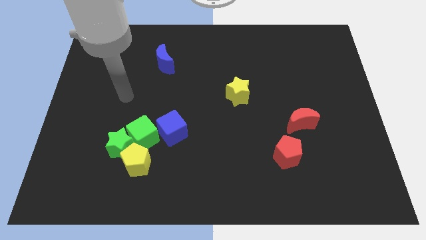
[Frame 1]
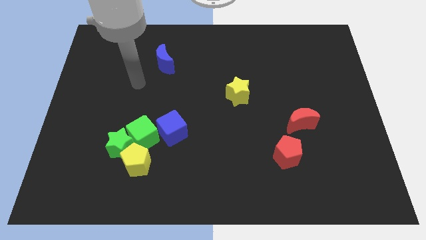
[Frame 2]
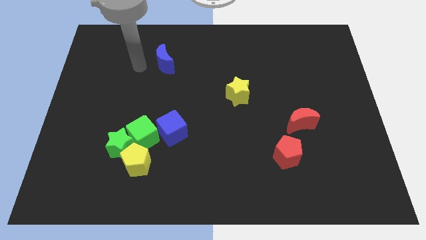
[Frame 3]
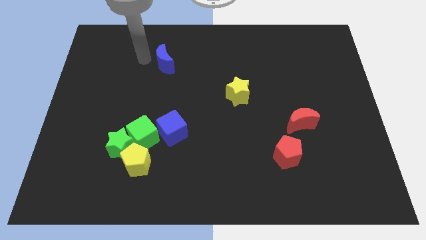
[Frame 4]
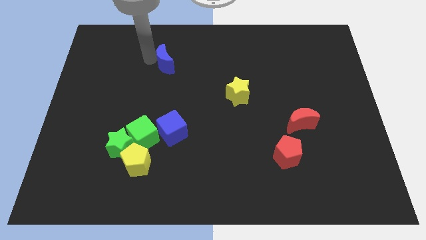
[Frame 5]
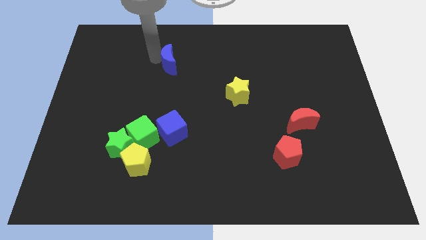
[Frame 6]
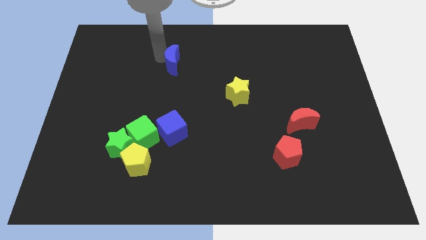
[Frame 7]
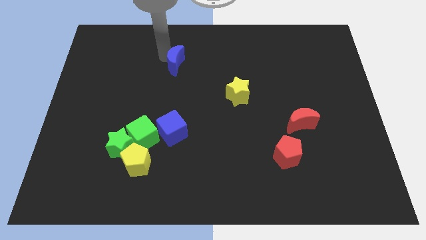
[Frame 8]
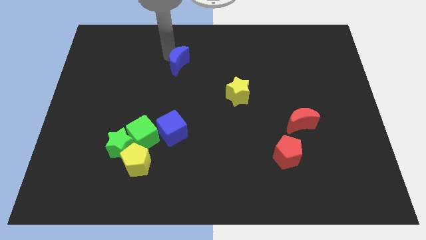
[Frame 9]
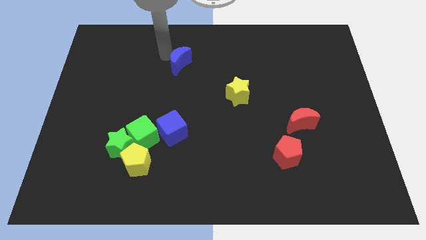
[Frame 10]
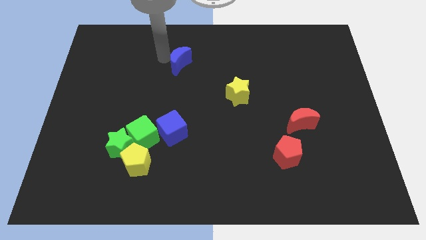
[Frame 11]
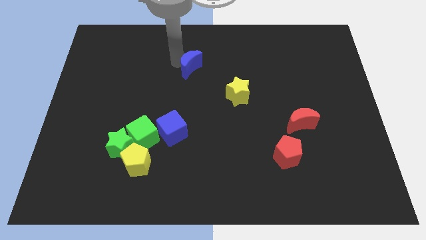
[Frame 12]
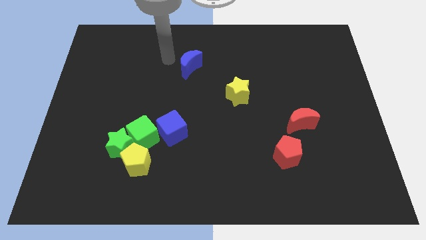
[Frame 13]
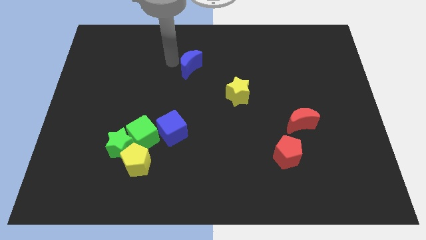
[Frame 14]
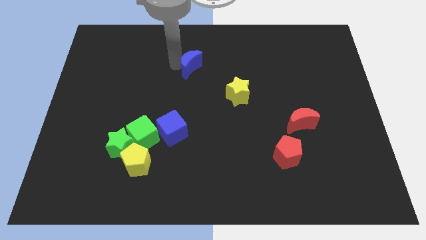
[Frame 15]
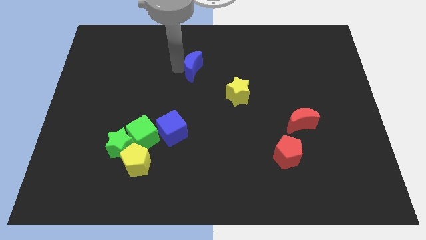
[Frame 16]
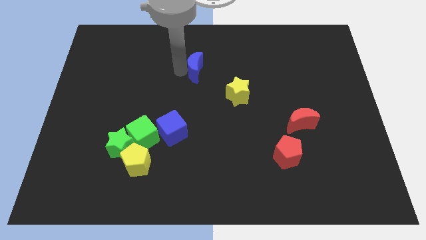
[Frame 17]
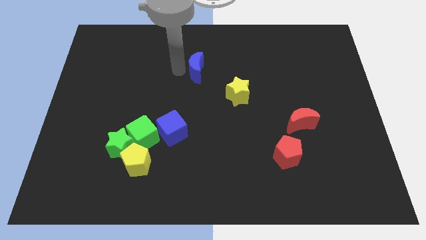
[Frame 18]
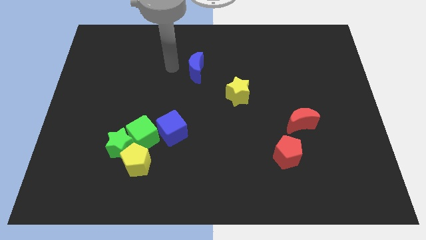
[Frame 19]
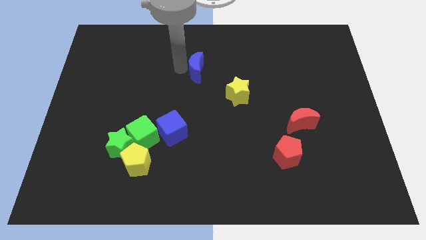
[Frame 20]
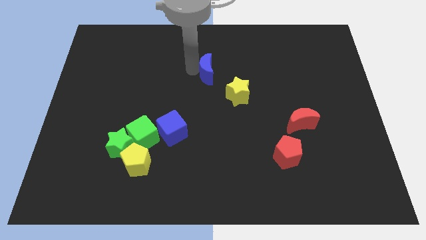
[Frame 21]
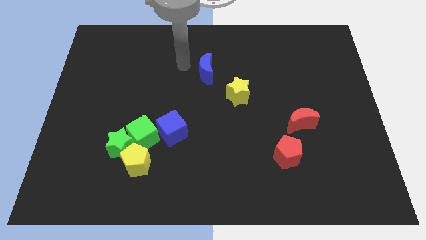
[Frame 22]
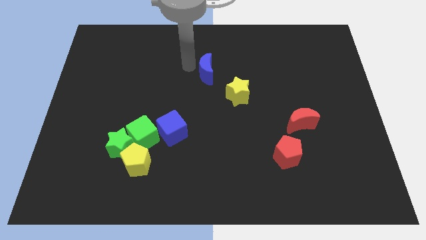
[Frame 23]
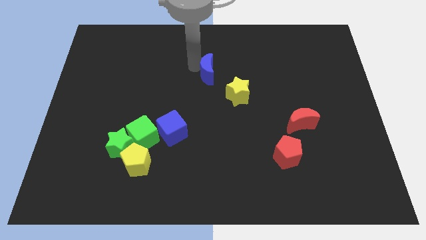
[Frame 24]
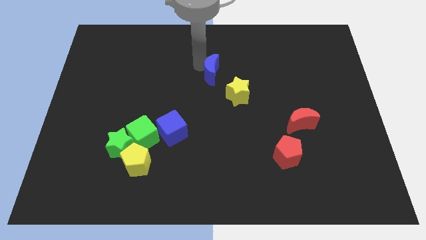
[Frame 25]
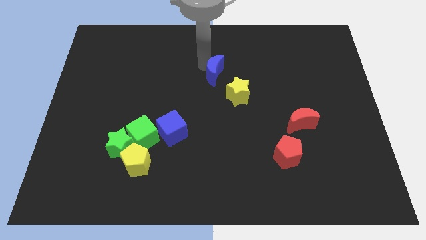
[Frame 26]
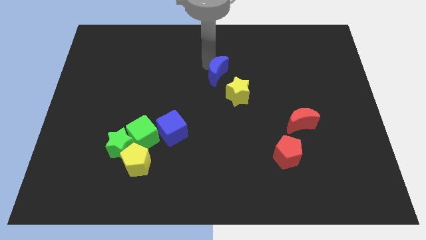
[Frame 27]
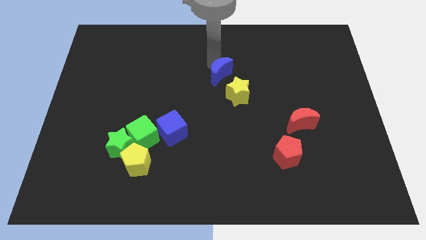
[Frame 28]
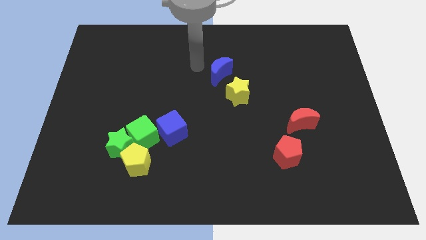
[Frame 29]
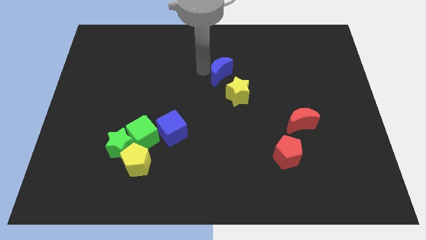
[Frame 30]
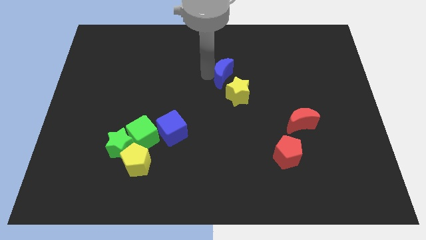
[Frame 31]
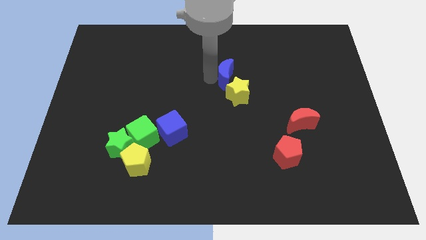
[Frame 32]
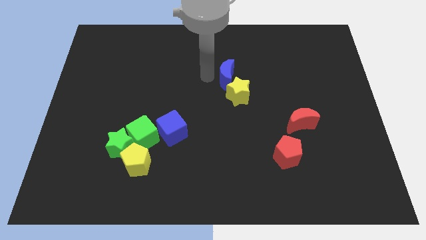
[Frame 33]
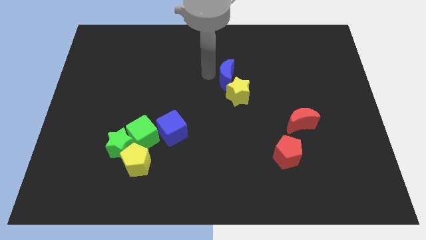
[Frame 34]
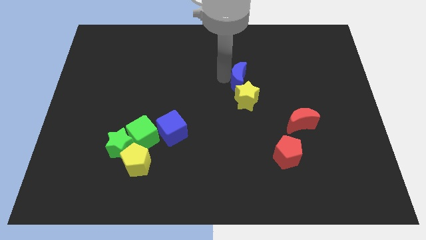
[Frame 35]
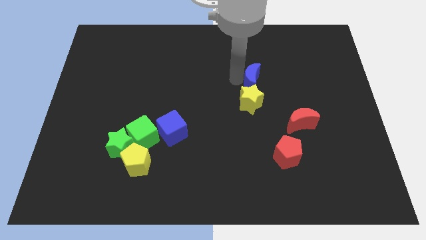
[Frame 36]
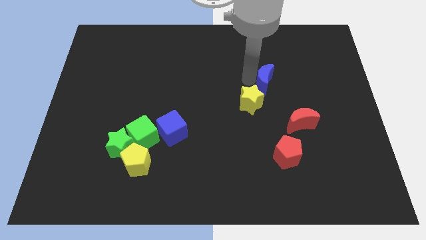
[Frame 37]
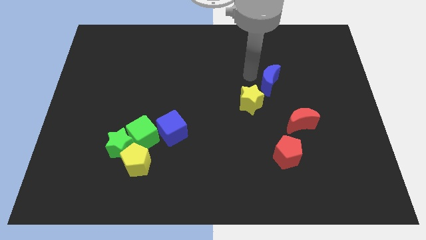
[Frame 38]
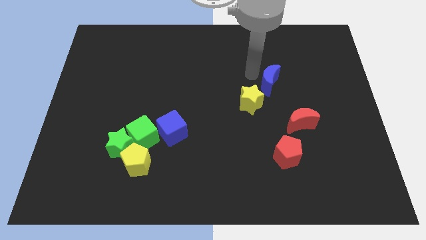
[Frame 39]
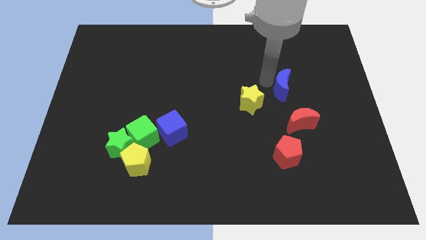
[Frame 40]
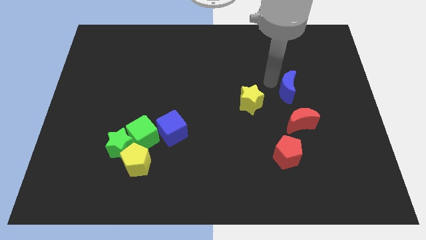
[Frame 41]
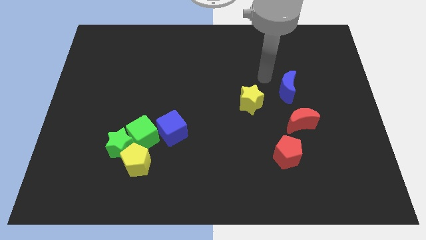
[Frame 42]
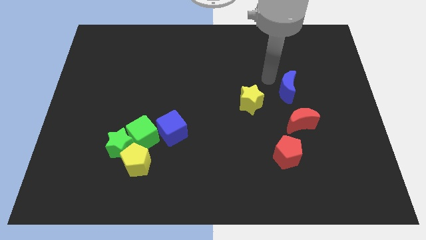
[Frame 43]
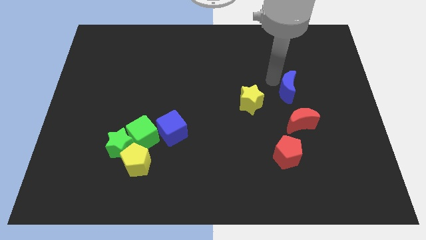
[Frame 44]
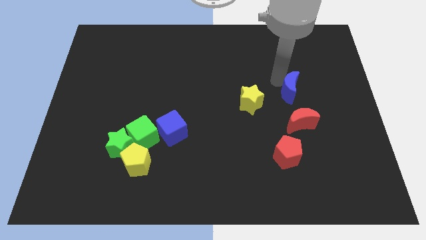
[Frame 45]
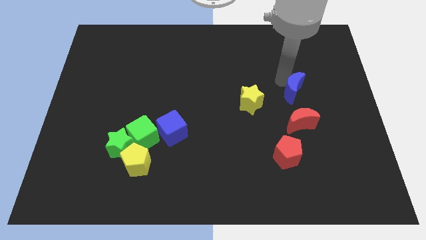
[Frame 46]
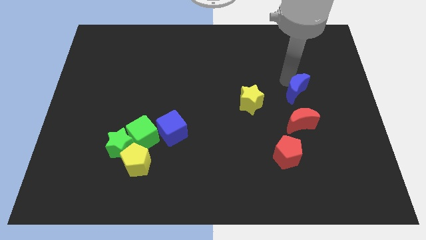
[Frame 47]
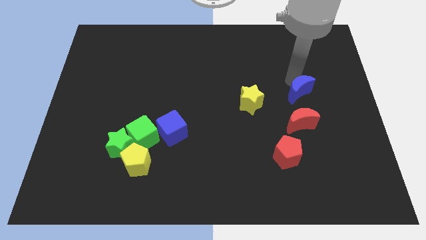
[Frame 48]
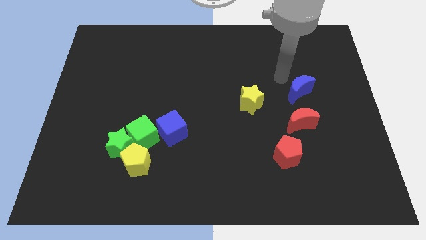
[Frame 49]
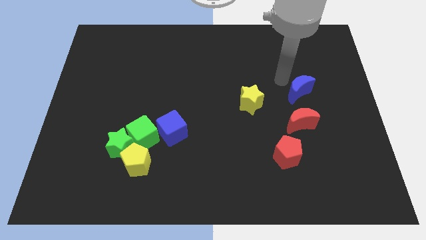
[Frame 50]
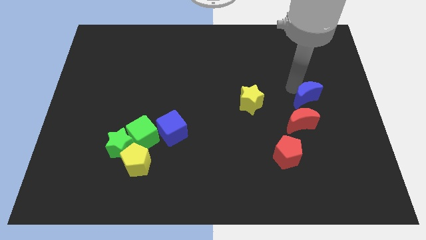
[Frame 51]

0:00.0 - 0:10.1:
move the blue moon to the top right of the red moon
